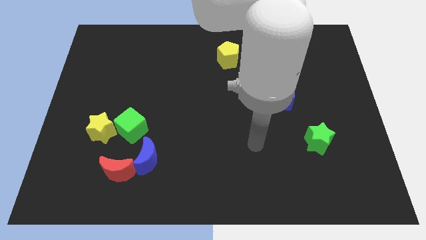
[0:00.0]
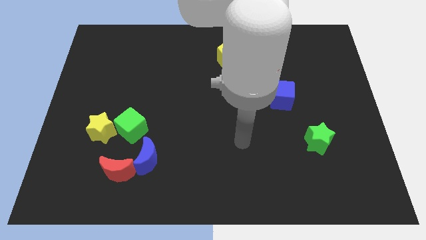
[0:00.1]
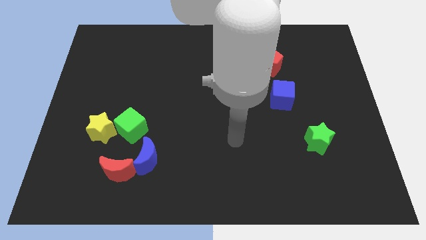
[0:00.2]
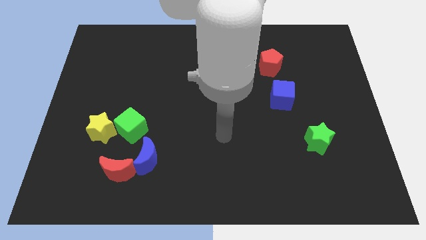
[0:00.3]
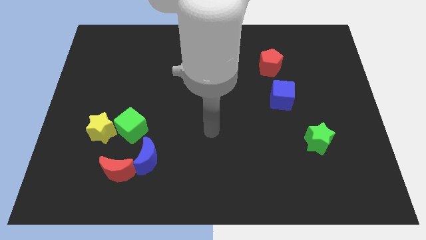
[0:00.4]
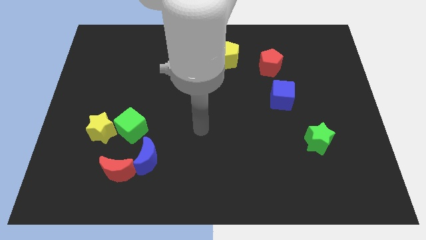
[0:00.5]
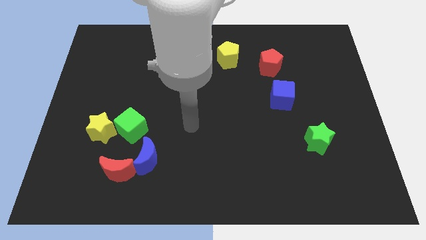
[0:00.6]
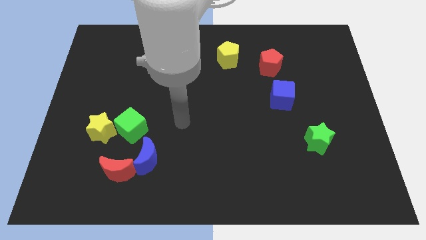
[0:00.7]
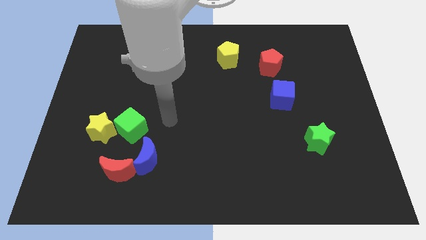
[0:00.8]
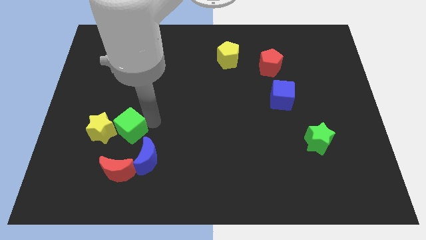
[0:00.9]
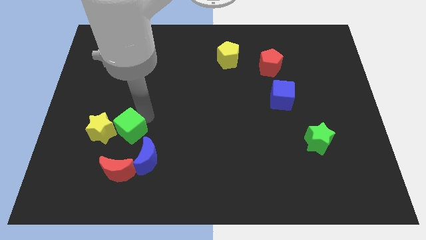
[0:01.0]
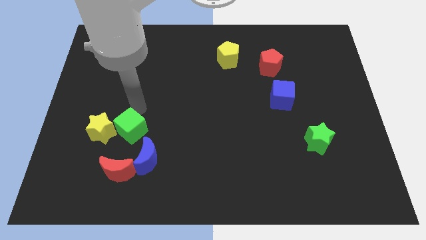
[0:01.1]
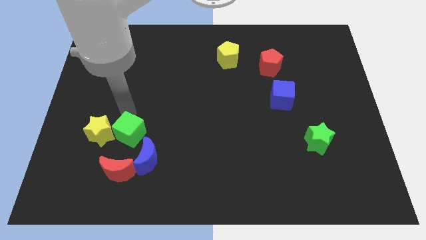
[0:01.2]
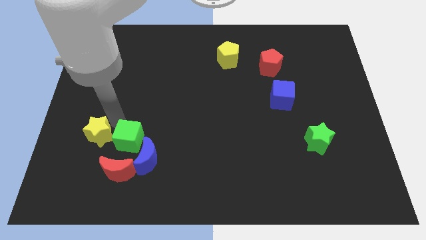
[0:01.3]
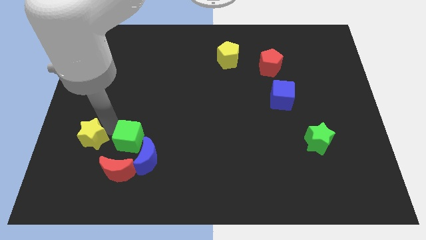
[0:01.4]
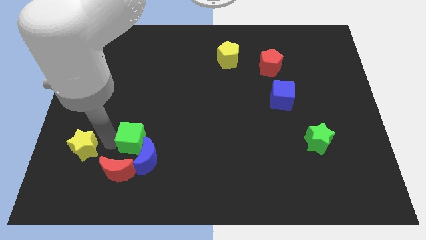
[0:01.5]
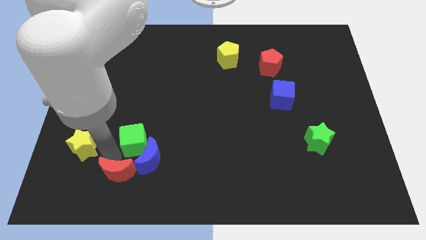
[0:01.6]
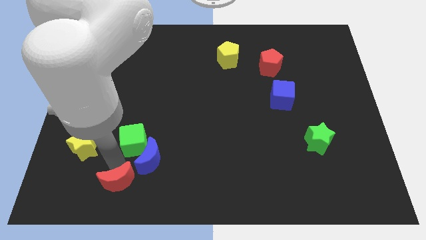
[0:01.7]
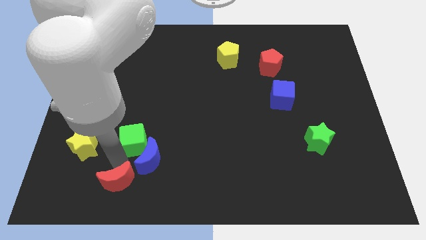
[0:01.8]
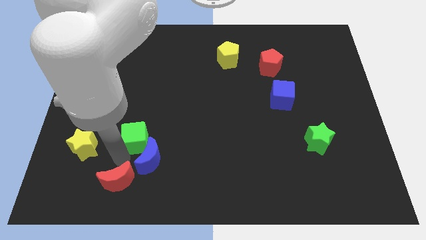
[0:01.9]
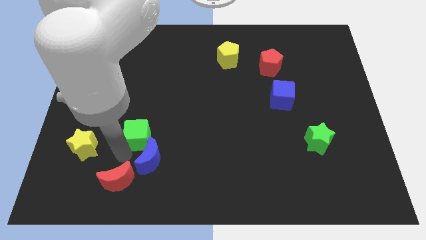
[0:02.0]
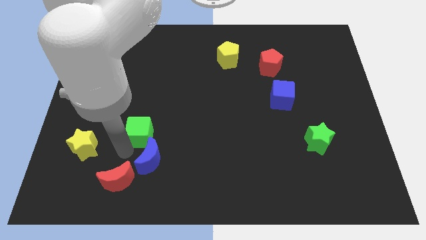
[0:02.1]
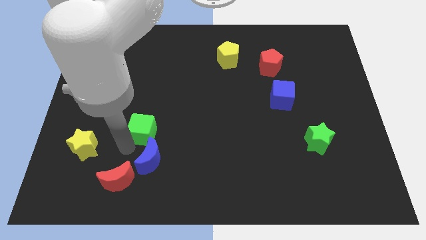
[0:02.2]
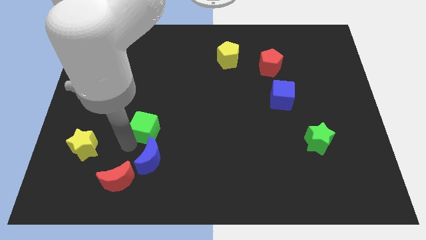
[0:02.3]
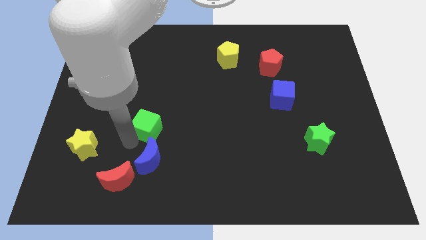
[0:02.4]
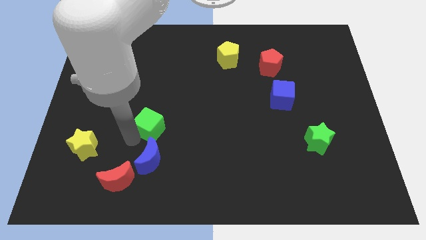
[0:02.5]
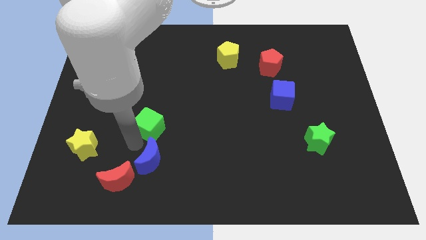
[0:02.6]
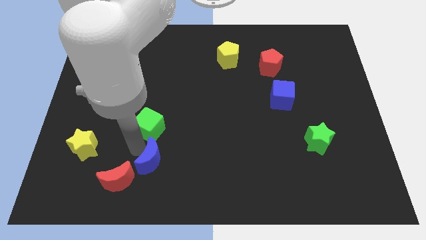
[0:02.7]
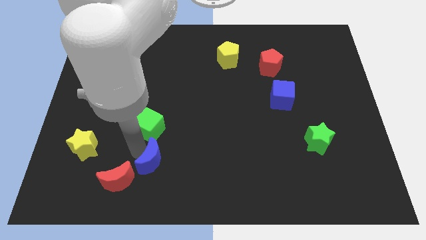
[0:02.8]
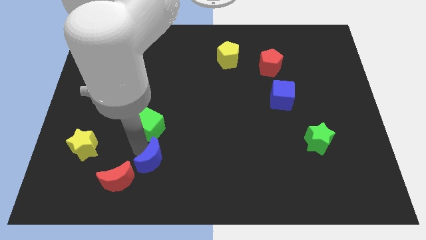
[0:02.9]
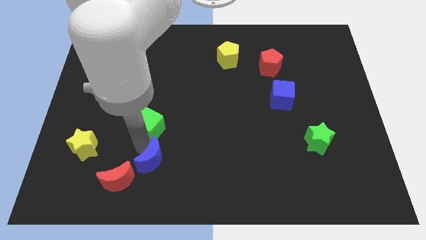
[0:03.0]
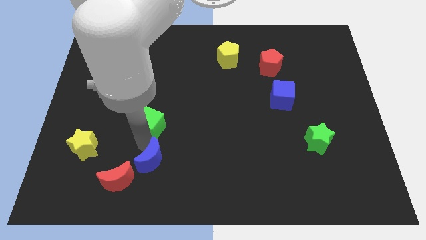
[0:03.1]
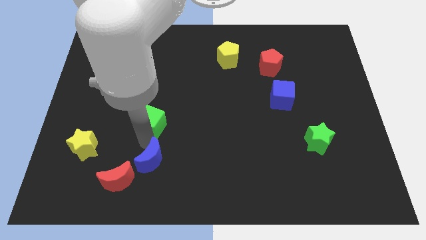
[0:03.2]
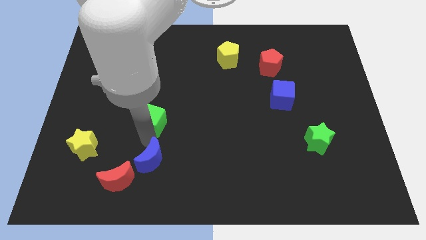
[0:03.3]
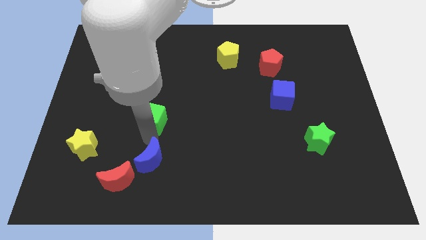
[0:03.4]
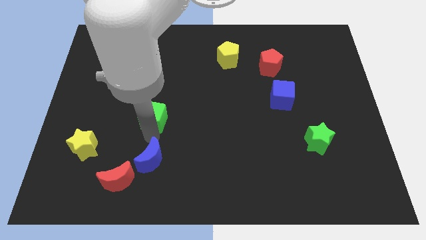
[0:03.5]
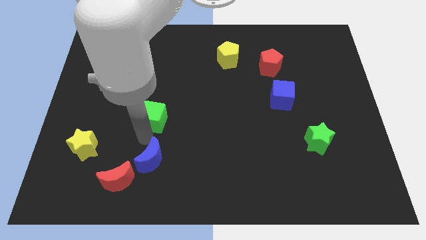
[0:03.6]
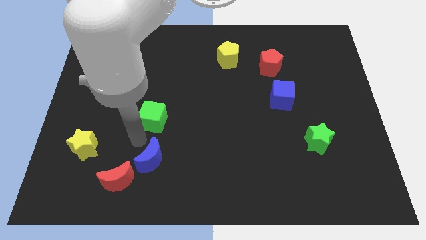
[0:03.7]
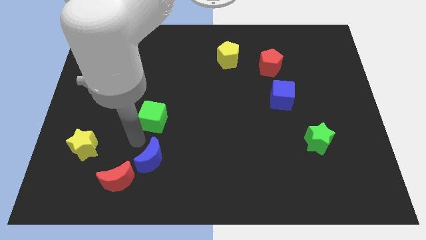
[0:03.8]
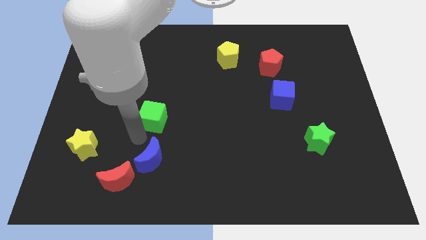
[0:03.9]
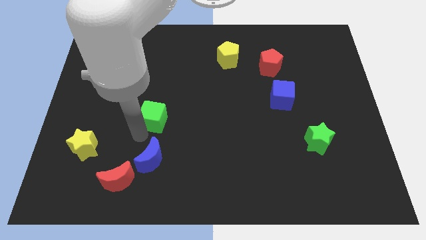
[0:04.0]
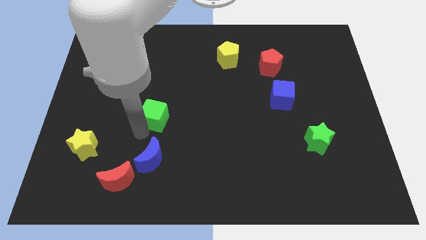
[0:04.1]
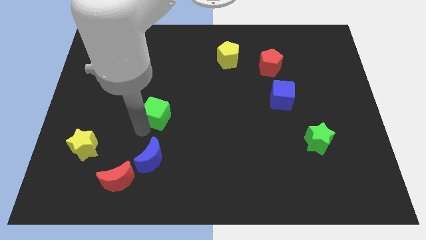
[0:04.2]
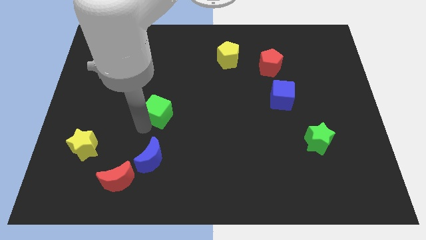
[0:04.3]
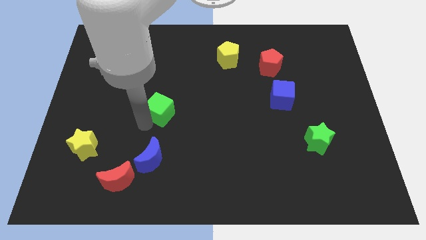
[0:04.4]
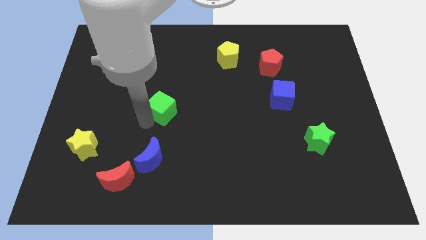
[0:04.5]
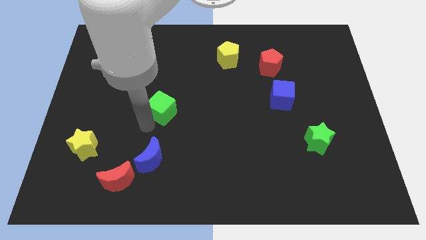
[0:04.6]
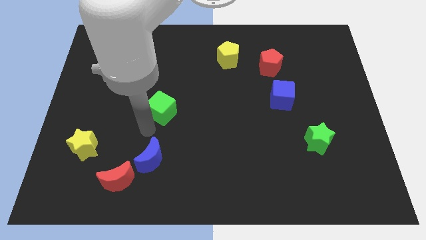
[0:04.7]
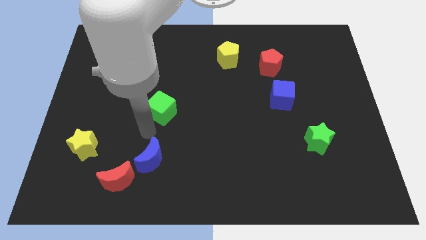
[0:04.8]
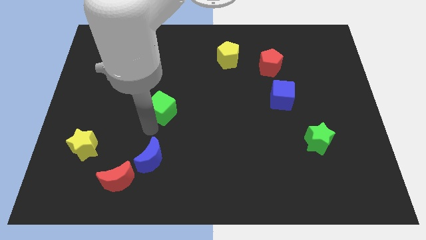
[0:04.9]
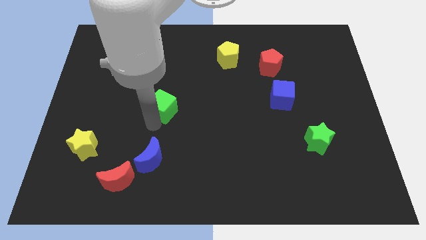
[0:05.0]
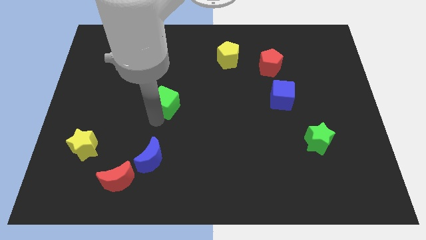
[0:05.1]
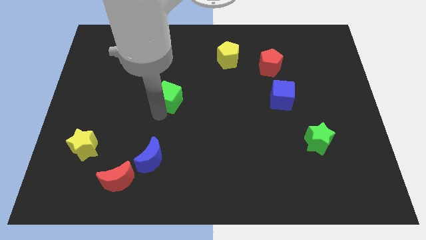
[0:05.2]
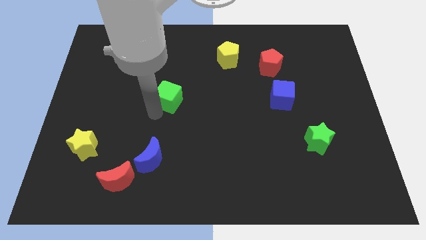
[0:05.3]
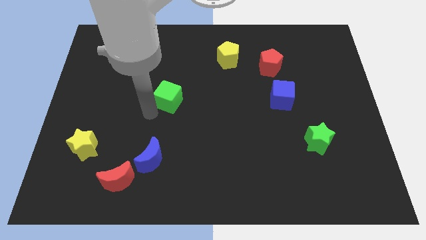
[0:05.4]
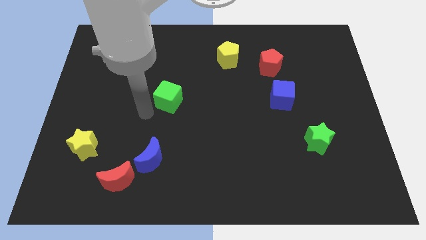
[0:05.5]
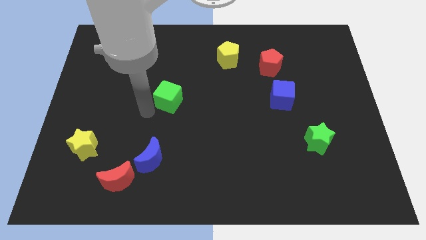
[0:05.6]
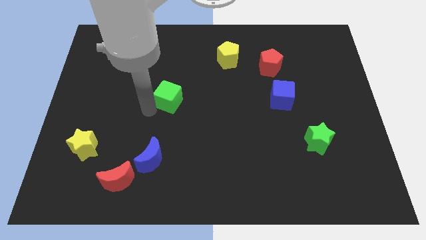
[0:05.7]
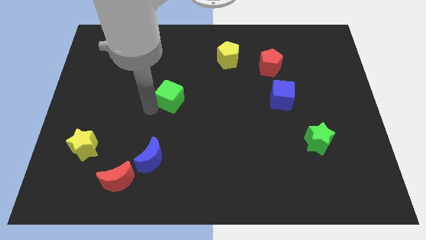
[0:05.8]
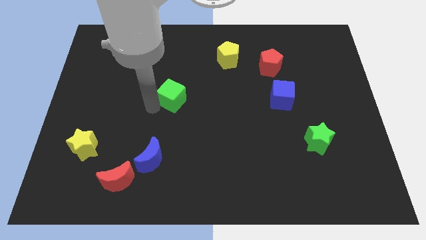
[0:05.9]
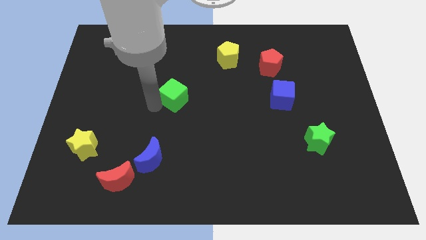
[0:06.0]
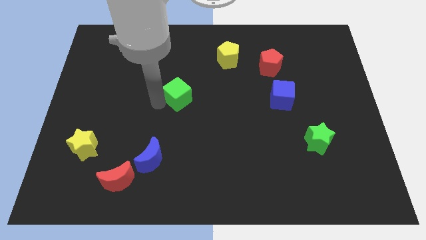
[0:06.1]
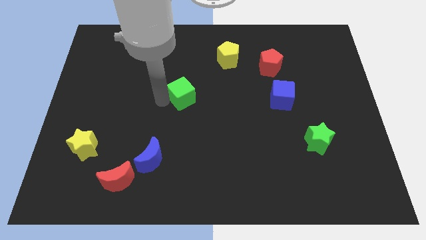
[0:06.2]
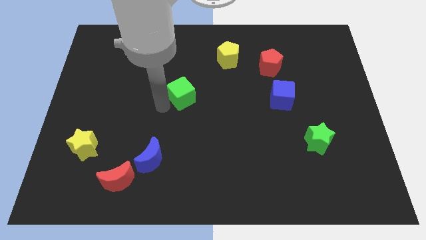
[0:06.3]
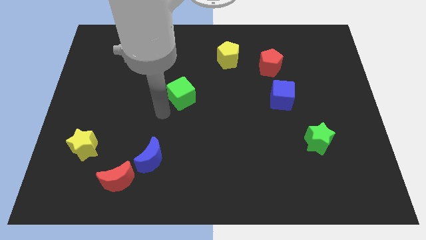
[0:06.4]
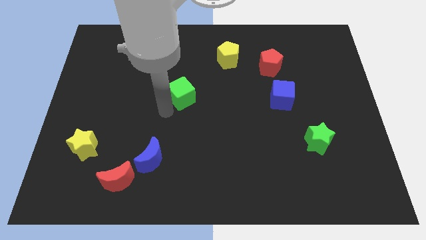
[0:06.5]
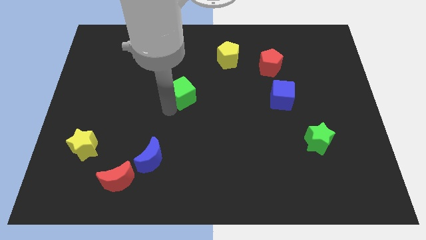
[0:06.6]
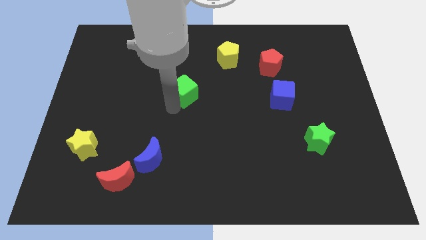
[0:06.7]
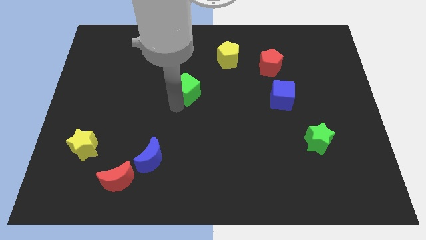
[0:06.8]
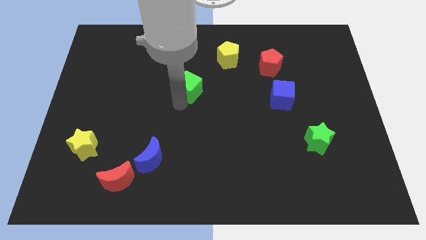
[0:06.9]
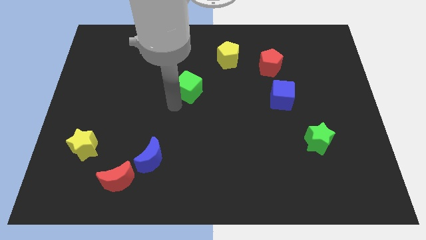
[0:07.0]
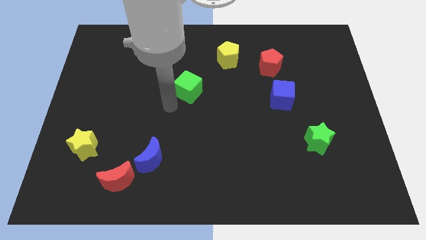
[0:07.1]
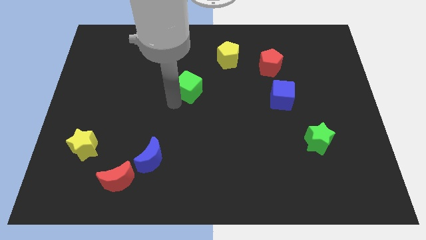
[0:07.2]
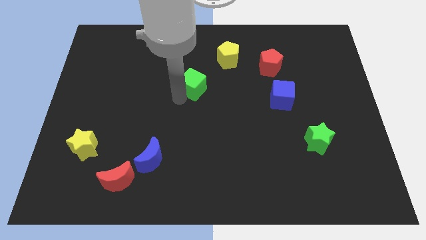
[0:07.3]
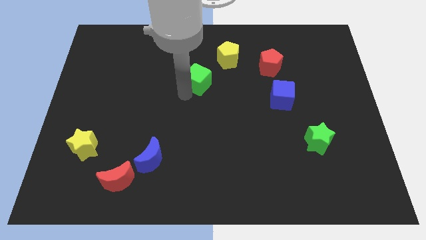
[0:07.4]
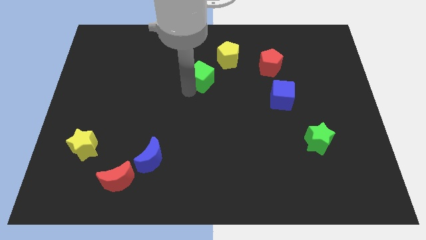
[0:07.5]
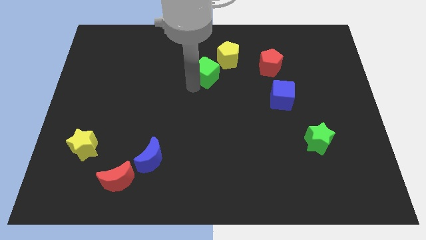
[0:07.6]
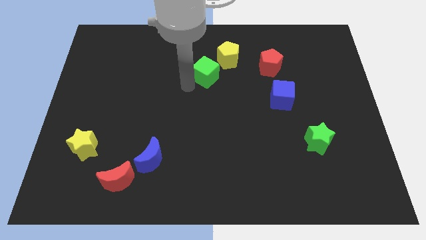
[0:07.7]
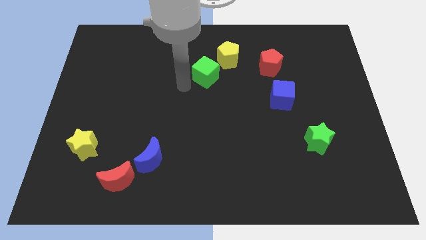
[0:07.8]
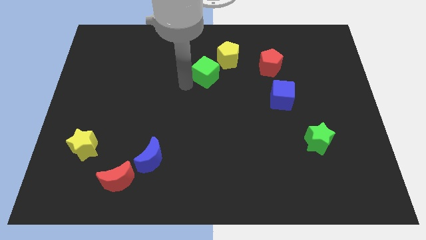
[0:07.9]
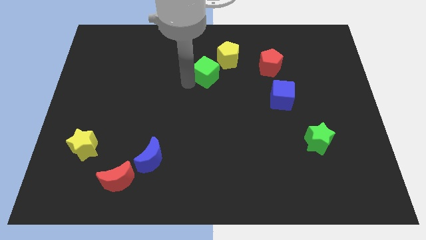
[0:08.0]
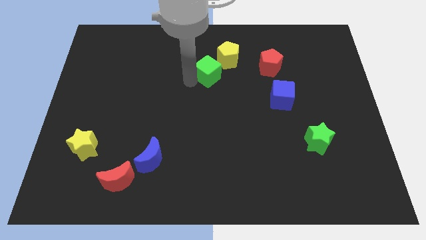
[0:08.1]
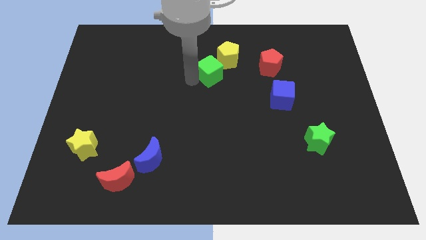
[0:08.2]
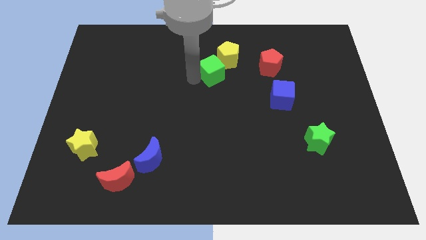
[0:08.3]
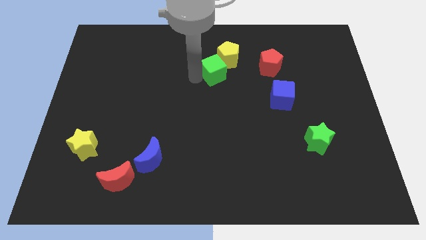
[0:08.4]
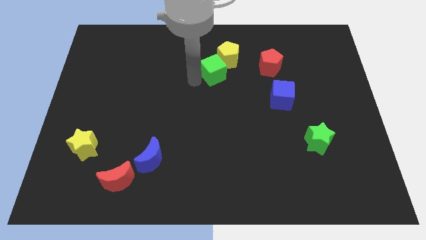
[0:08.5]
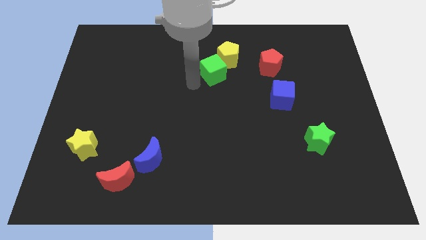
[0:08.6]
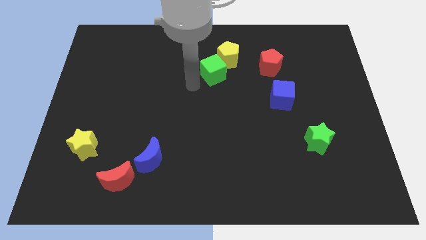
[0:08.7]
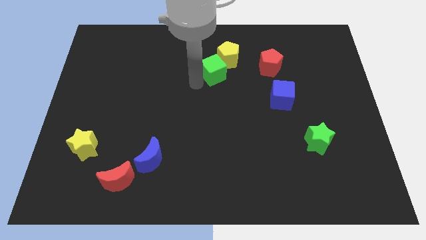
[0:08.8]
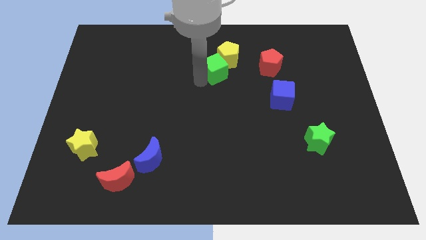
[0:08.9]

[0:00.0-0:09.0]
push the green cube close to the yellow pentagon
